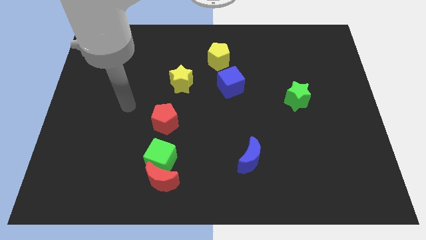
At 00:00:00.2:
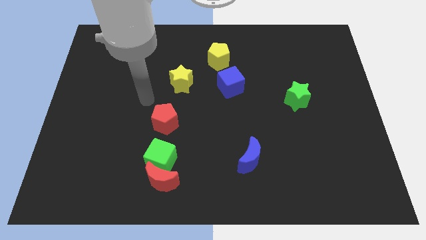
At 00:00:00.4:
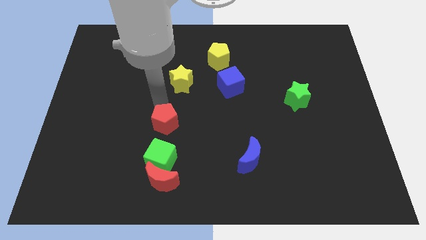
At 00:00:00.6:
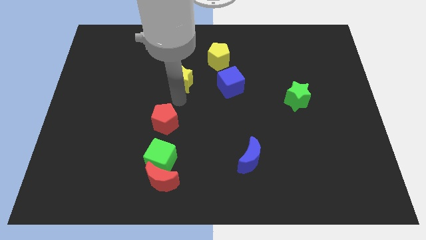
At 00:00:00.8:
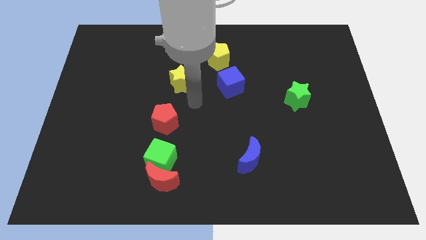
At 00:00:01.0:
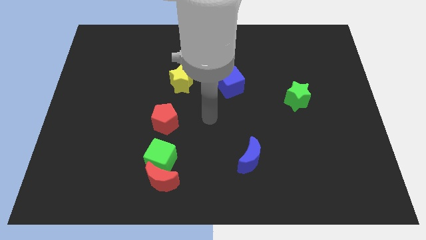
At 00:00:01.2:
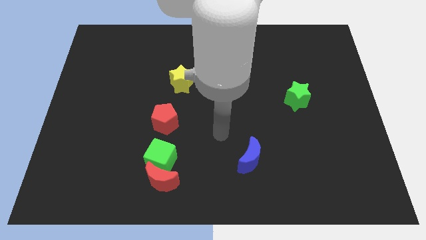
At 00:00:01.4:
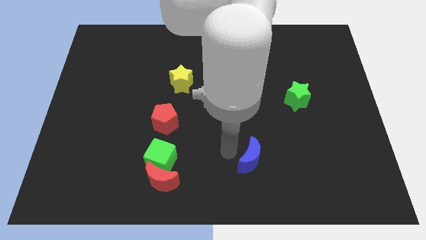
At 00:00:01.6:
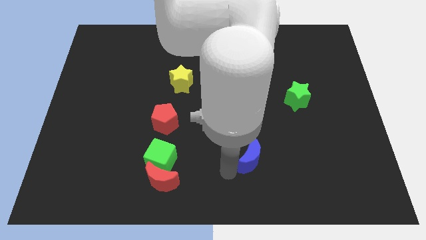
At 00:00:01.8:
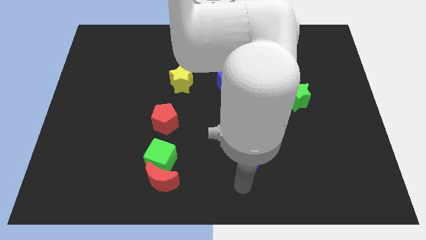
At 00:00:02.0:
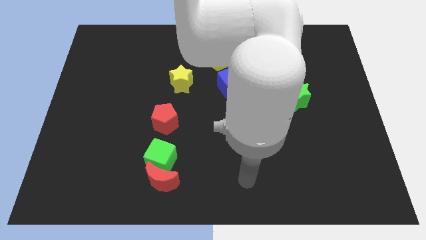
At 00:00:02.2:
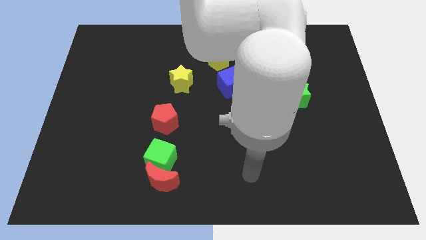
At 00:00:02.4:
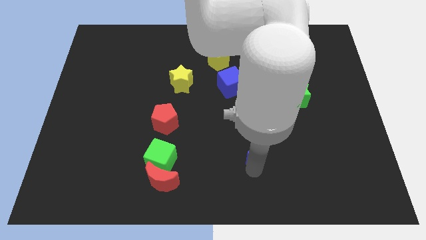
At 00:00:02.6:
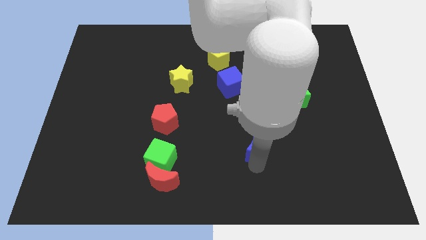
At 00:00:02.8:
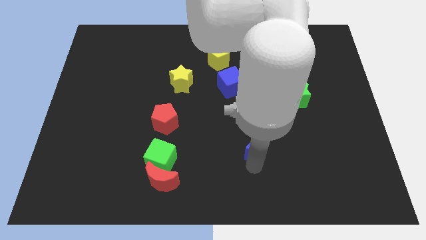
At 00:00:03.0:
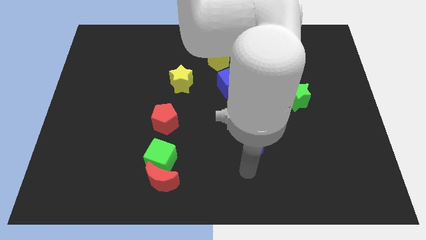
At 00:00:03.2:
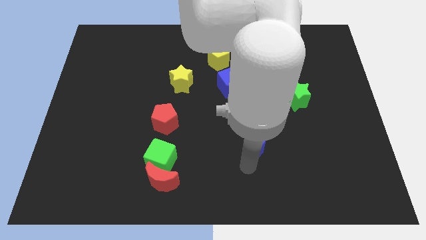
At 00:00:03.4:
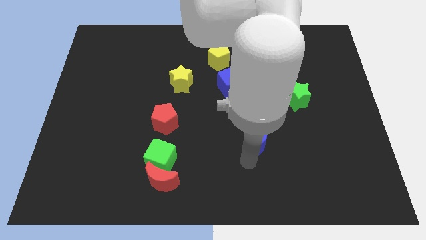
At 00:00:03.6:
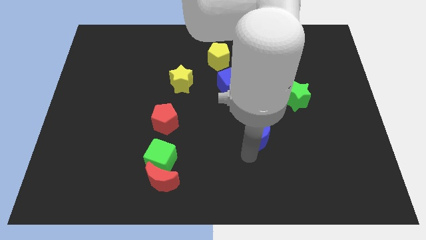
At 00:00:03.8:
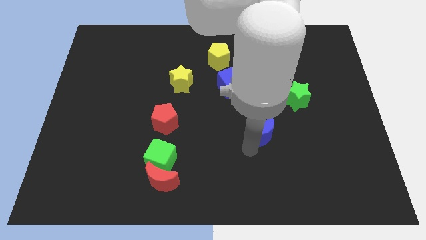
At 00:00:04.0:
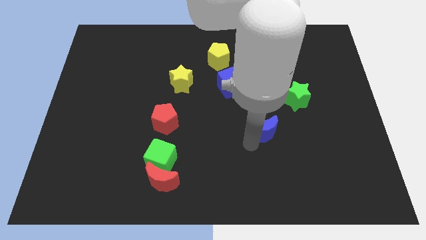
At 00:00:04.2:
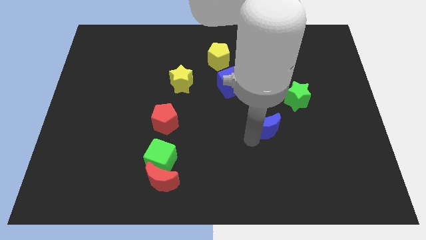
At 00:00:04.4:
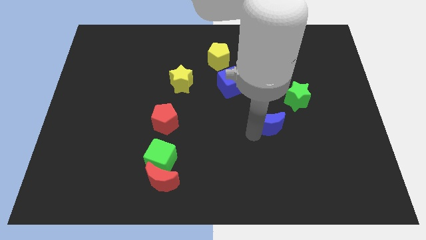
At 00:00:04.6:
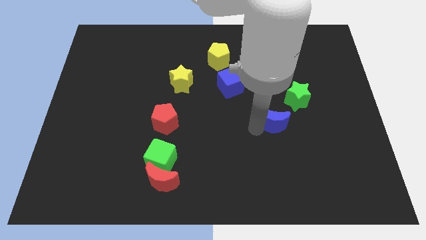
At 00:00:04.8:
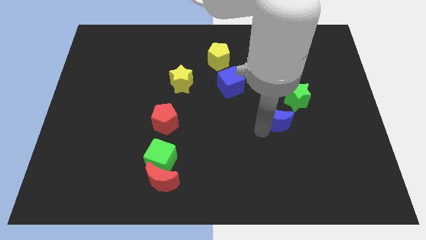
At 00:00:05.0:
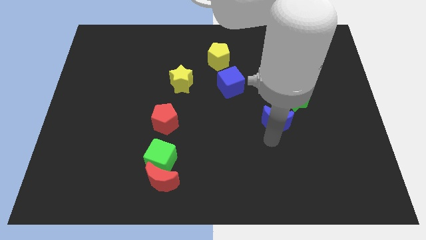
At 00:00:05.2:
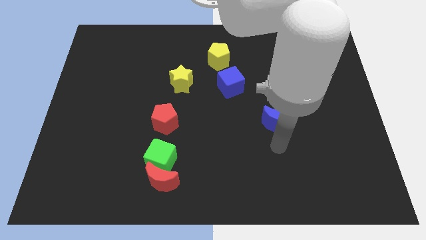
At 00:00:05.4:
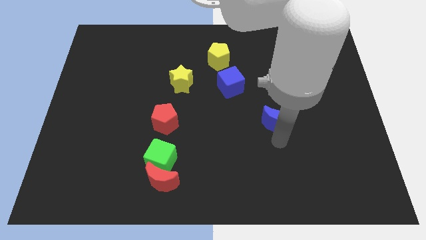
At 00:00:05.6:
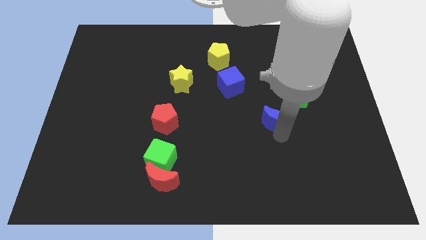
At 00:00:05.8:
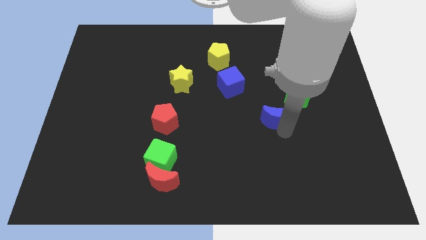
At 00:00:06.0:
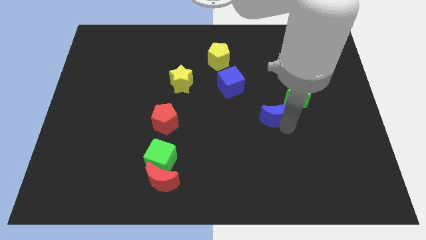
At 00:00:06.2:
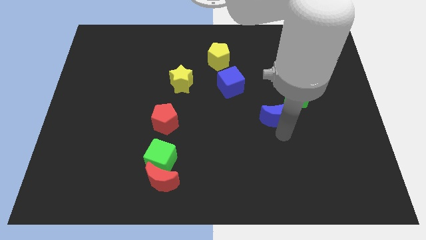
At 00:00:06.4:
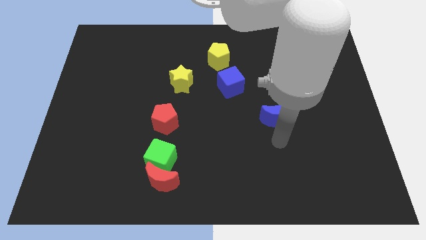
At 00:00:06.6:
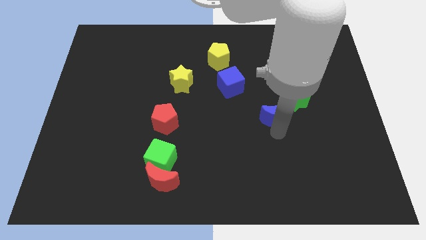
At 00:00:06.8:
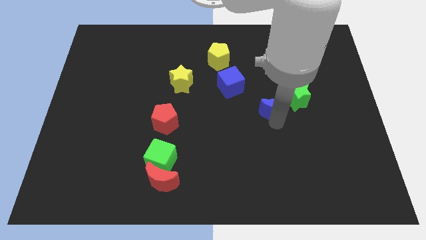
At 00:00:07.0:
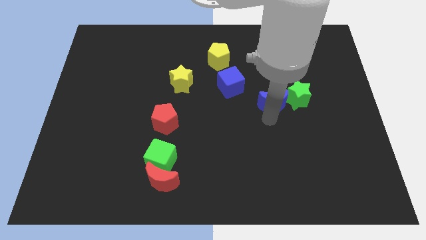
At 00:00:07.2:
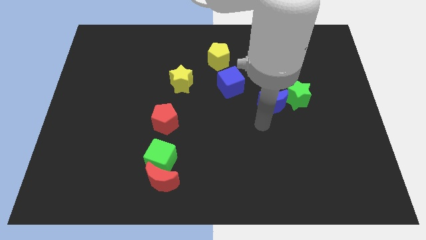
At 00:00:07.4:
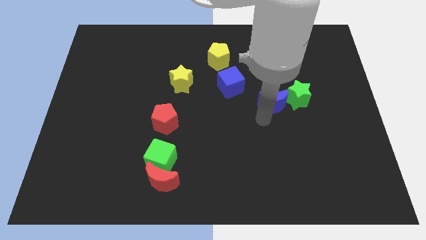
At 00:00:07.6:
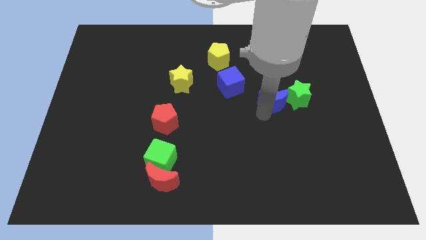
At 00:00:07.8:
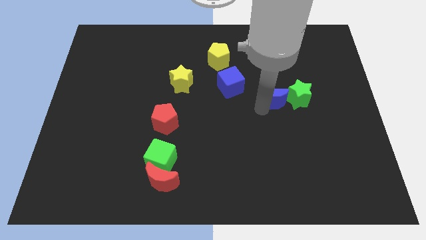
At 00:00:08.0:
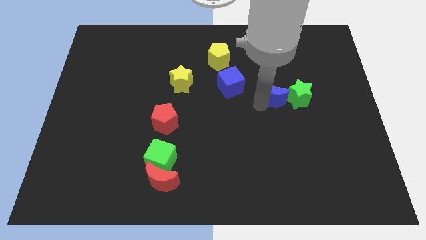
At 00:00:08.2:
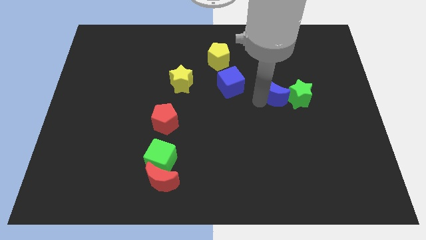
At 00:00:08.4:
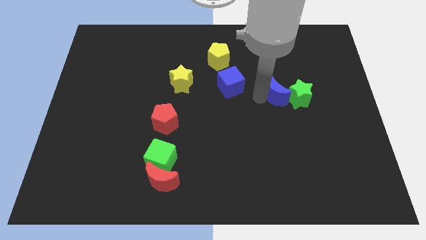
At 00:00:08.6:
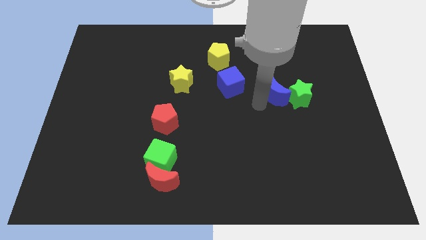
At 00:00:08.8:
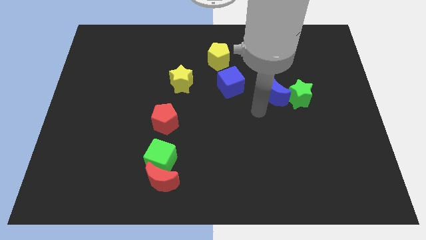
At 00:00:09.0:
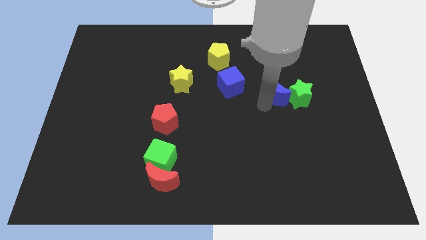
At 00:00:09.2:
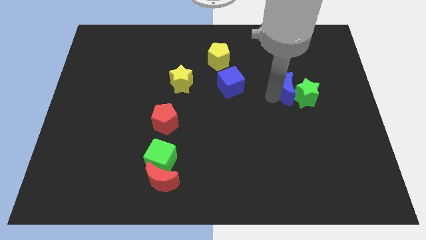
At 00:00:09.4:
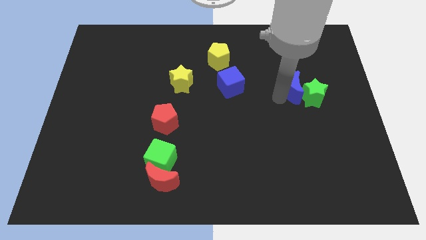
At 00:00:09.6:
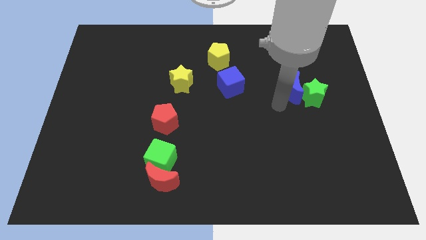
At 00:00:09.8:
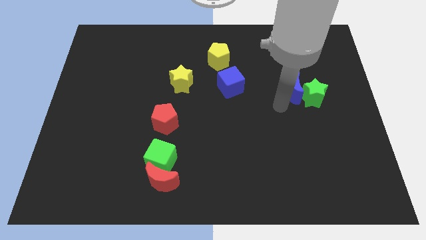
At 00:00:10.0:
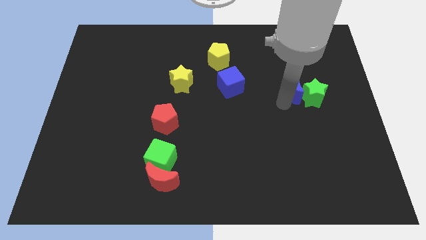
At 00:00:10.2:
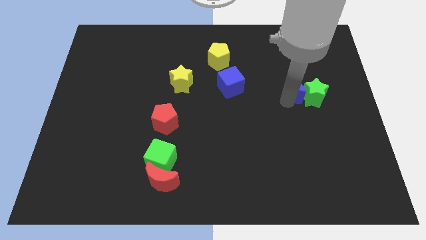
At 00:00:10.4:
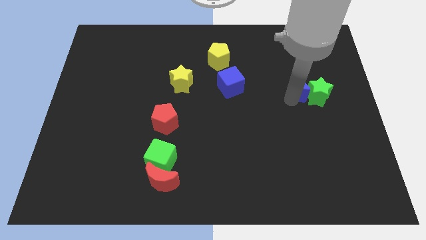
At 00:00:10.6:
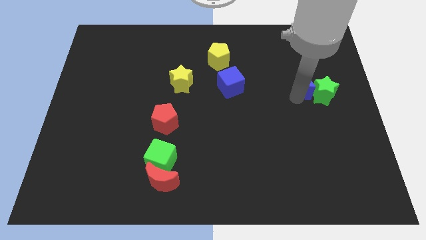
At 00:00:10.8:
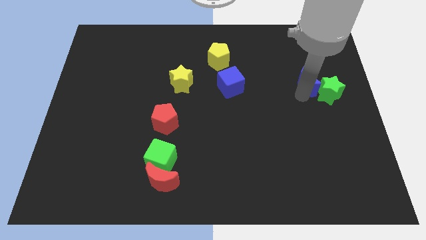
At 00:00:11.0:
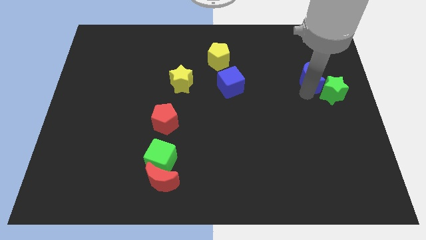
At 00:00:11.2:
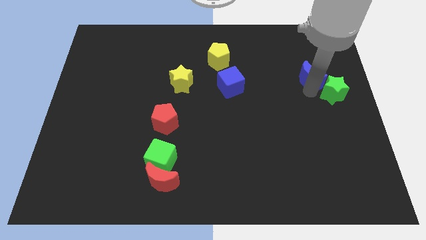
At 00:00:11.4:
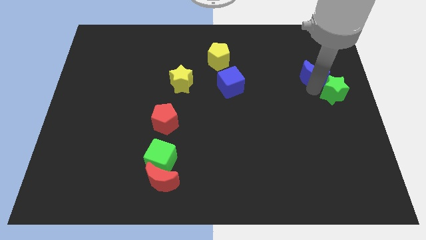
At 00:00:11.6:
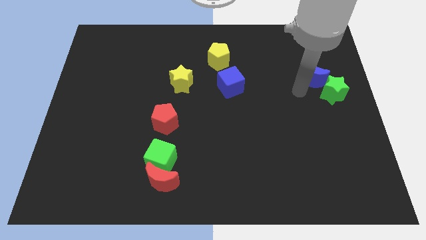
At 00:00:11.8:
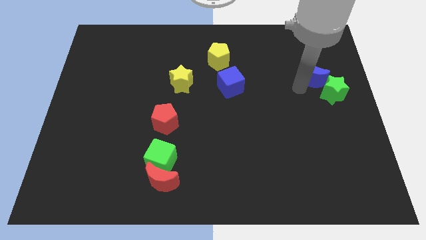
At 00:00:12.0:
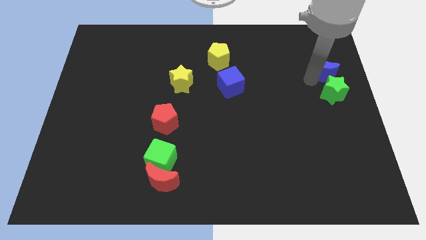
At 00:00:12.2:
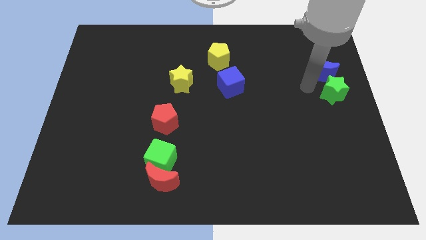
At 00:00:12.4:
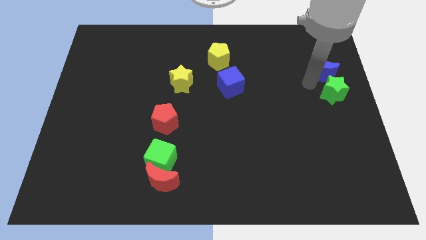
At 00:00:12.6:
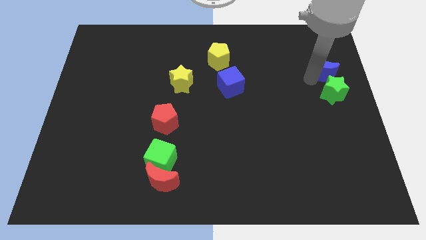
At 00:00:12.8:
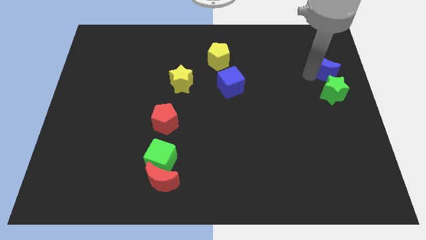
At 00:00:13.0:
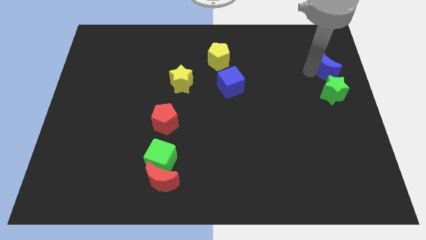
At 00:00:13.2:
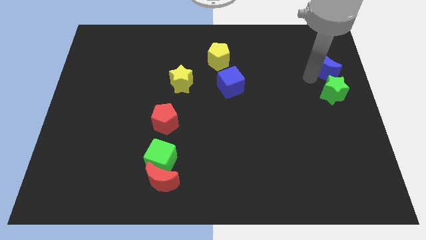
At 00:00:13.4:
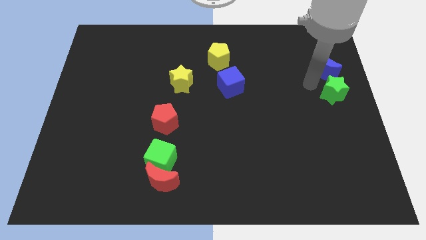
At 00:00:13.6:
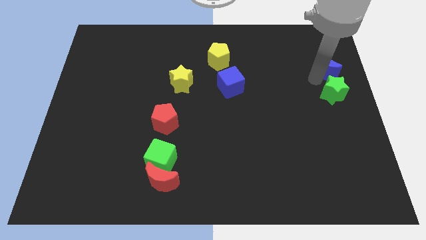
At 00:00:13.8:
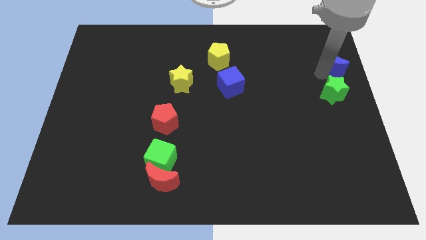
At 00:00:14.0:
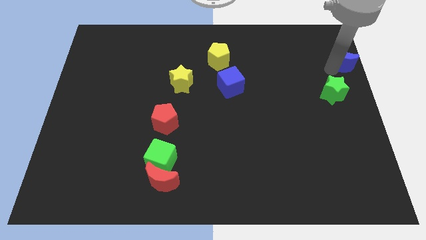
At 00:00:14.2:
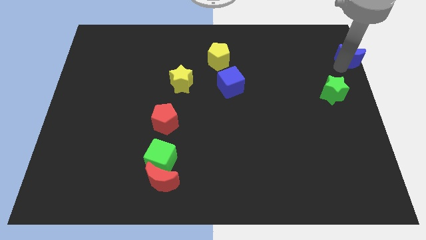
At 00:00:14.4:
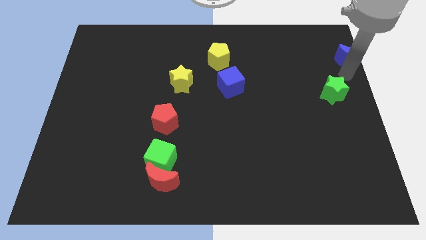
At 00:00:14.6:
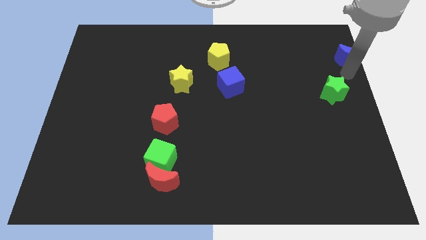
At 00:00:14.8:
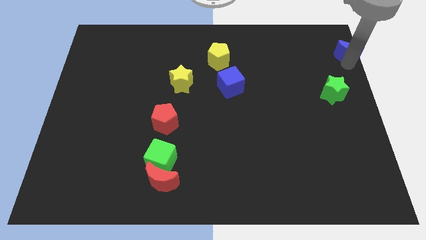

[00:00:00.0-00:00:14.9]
put the blue moon to the upper right corner
